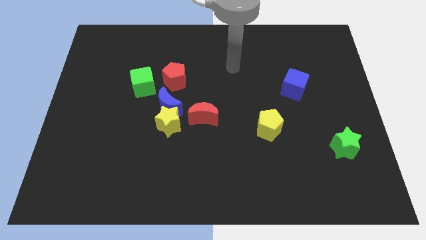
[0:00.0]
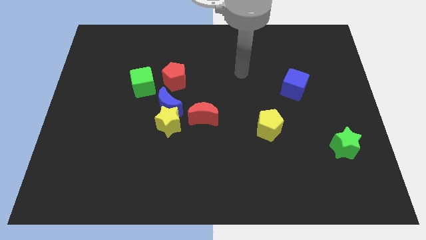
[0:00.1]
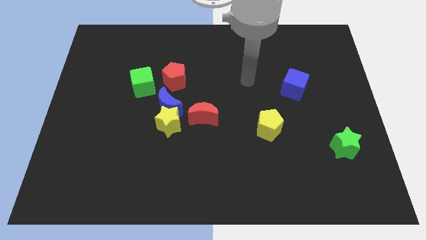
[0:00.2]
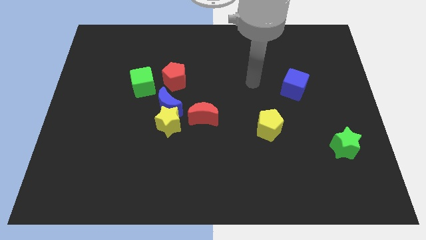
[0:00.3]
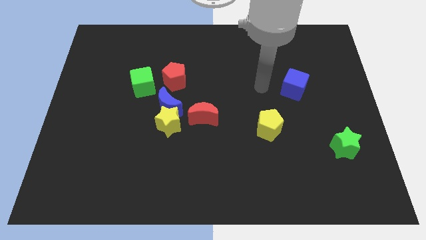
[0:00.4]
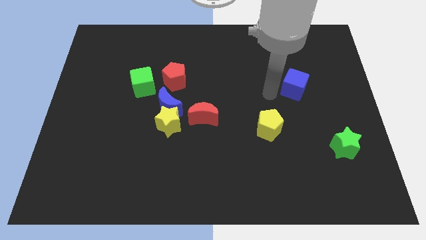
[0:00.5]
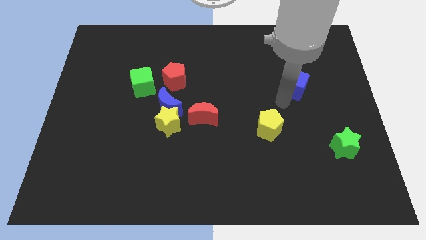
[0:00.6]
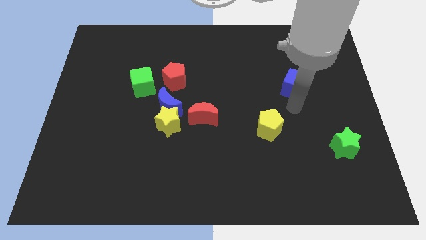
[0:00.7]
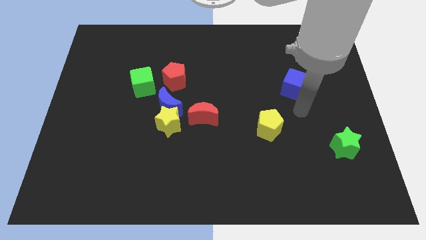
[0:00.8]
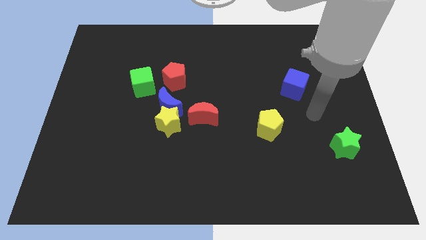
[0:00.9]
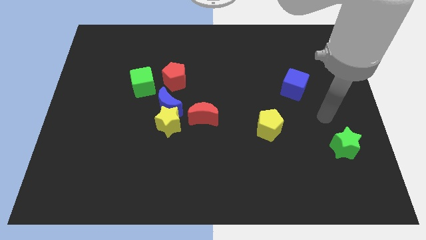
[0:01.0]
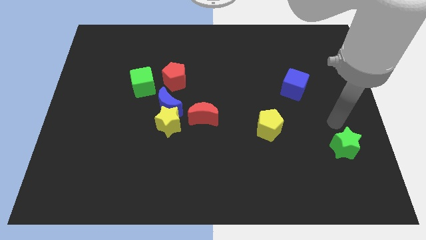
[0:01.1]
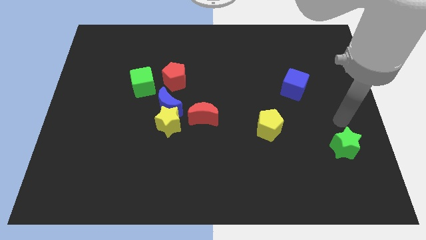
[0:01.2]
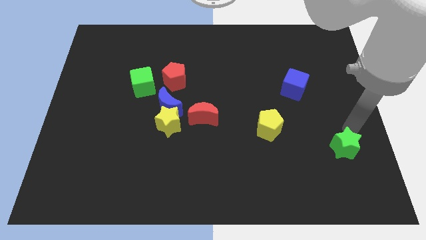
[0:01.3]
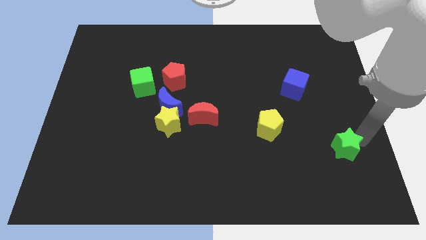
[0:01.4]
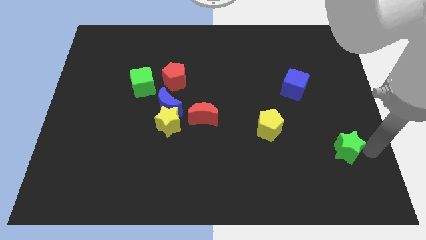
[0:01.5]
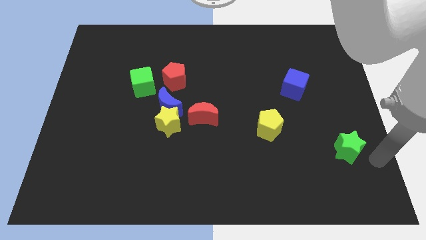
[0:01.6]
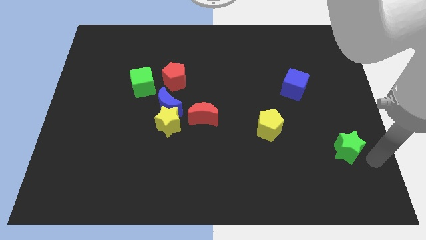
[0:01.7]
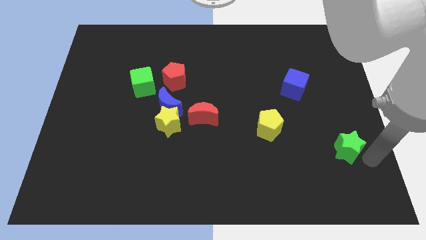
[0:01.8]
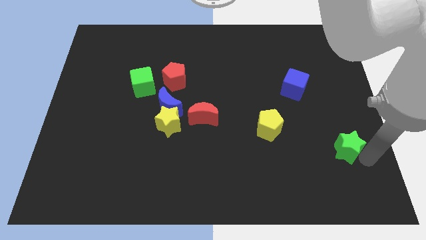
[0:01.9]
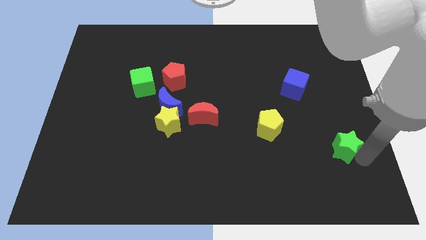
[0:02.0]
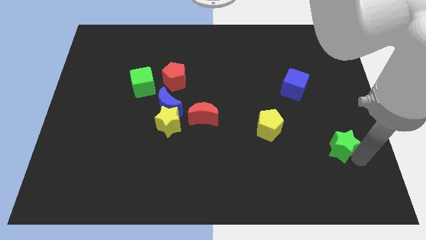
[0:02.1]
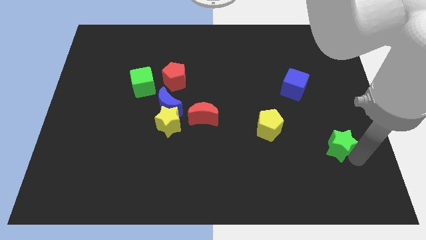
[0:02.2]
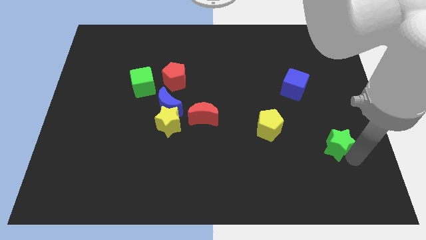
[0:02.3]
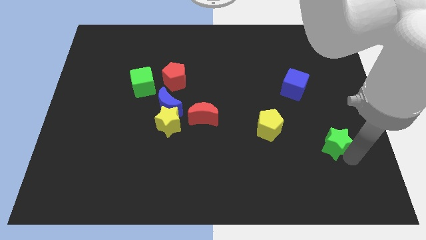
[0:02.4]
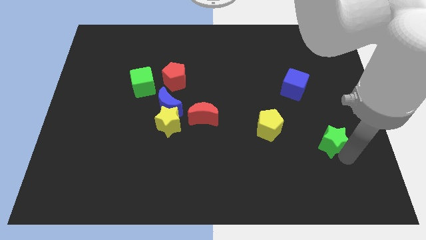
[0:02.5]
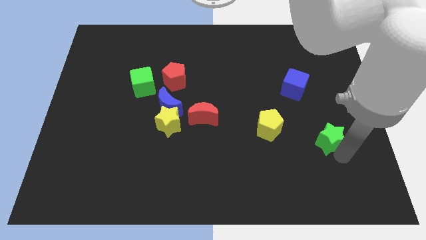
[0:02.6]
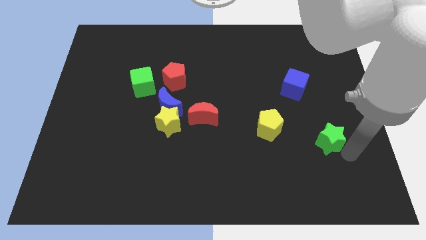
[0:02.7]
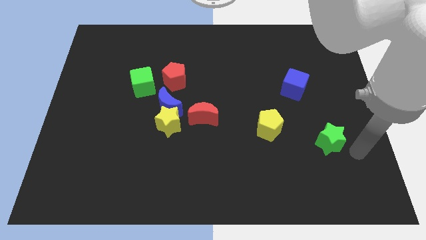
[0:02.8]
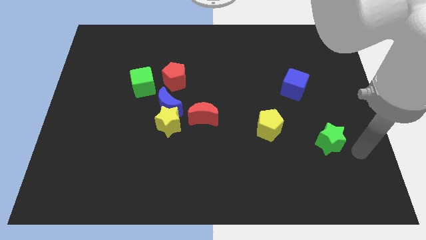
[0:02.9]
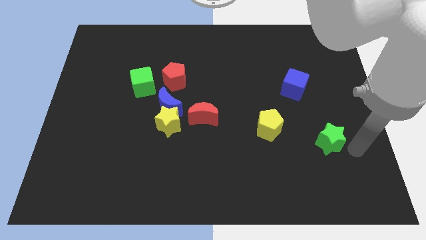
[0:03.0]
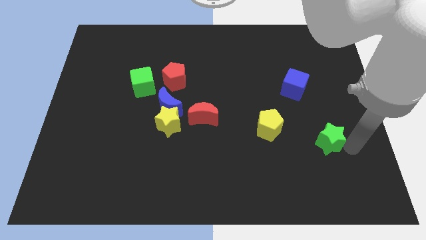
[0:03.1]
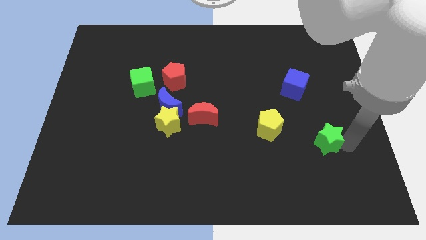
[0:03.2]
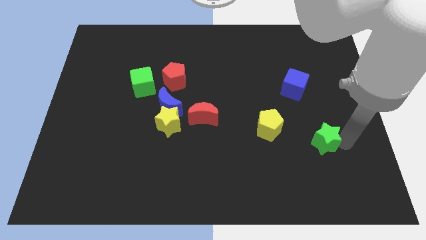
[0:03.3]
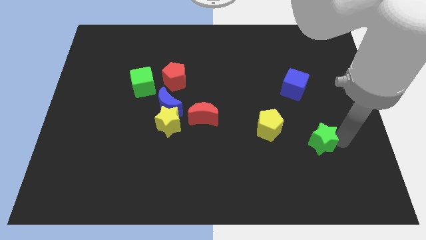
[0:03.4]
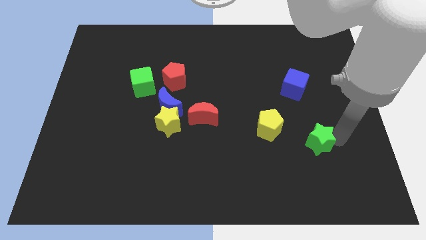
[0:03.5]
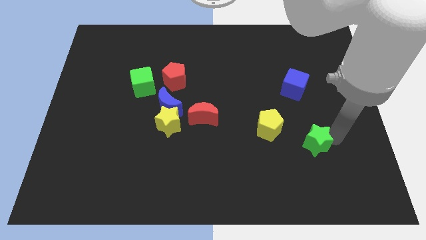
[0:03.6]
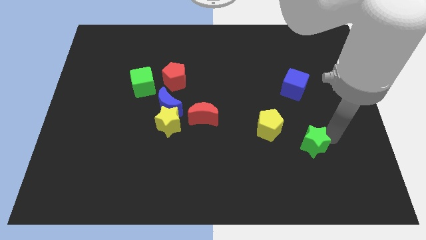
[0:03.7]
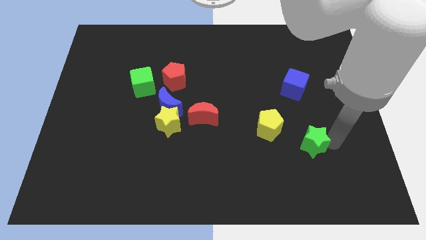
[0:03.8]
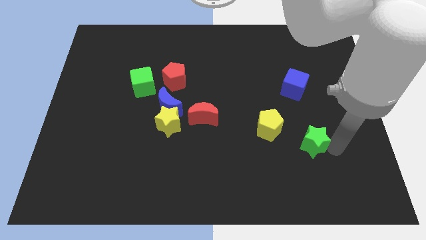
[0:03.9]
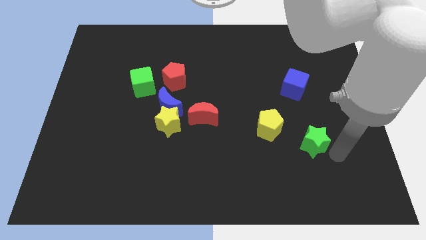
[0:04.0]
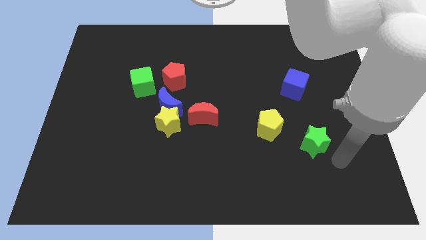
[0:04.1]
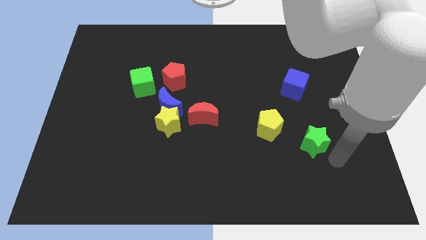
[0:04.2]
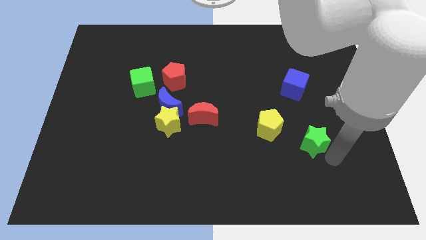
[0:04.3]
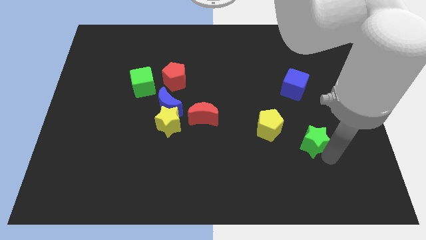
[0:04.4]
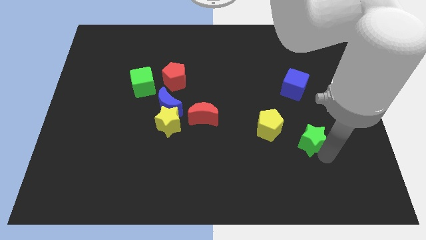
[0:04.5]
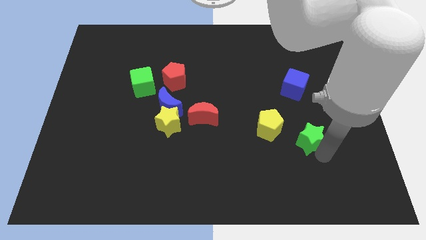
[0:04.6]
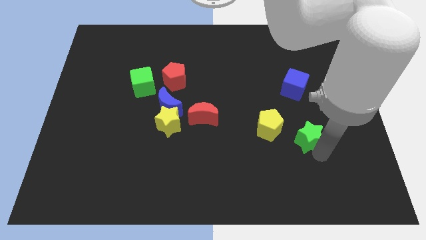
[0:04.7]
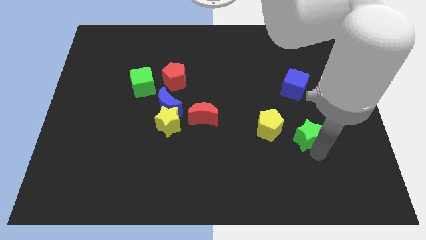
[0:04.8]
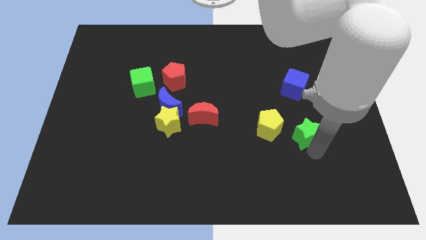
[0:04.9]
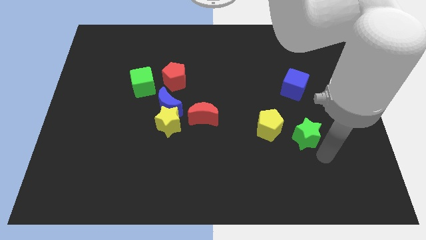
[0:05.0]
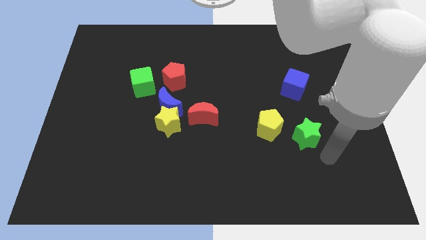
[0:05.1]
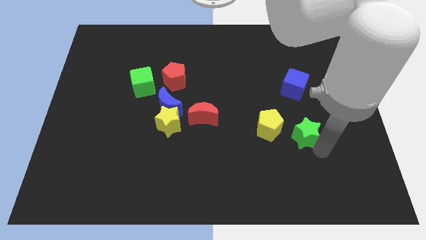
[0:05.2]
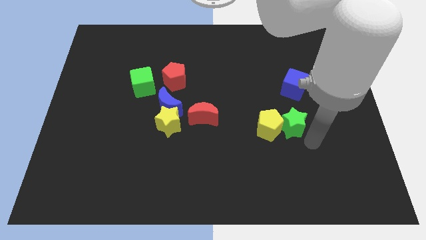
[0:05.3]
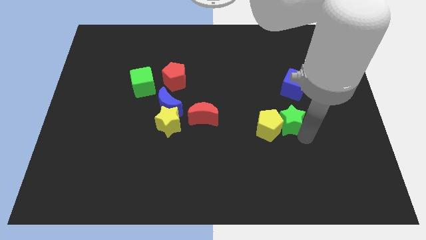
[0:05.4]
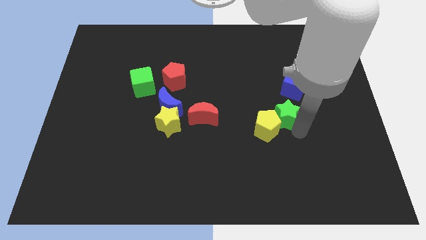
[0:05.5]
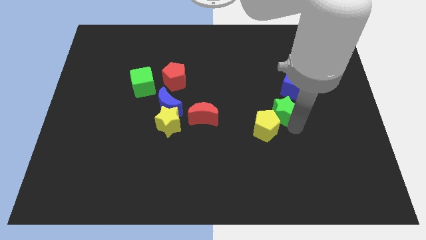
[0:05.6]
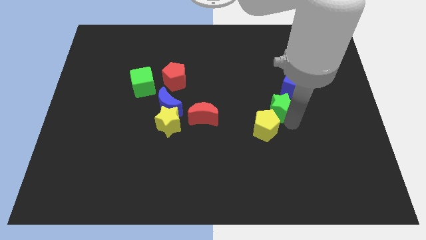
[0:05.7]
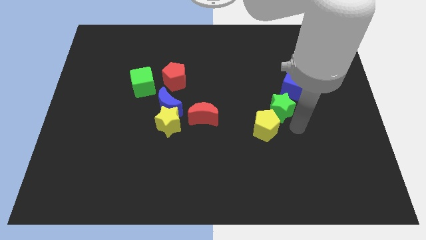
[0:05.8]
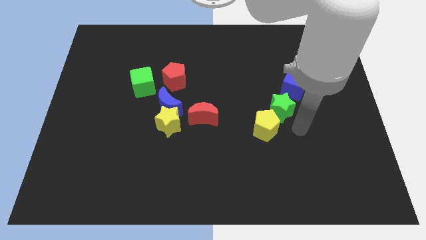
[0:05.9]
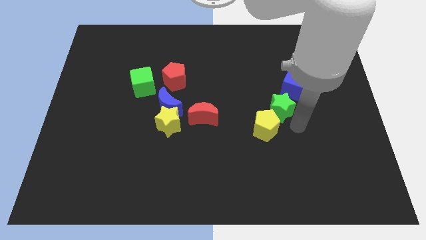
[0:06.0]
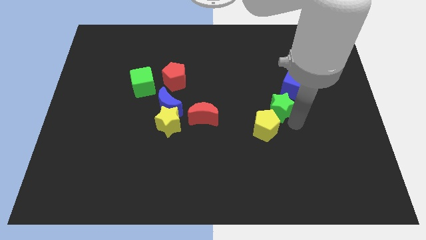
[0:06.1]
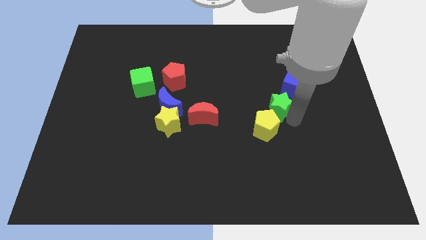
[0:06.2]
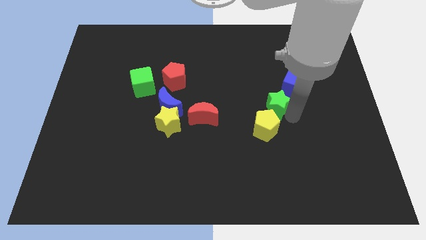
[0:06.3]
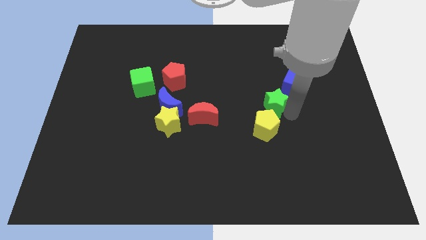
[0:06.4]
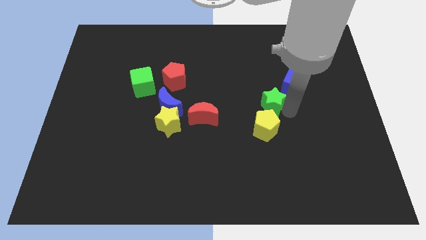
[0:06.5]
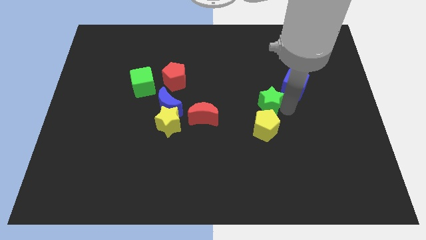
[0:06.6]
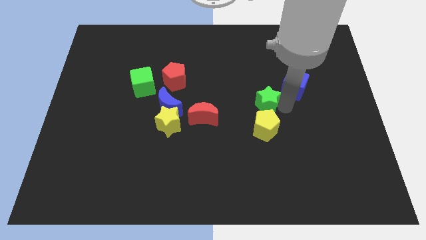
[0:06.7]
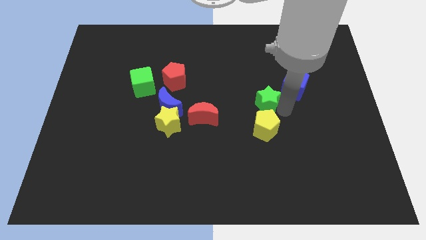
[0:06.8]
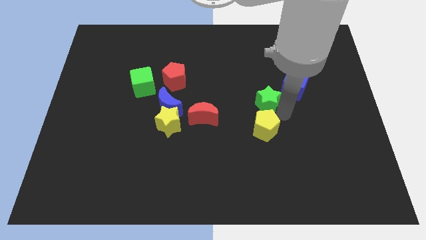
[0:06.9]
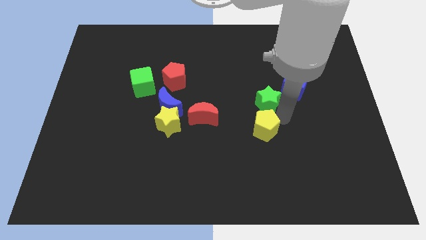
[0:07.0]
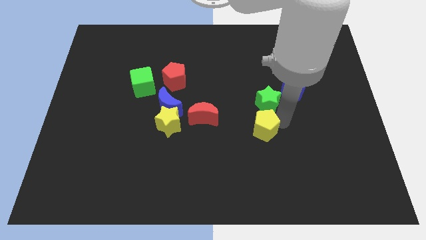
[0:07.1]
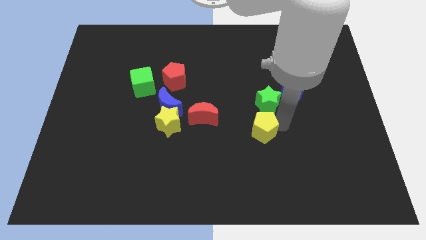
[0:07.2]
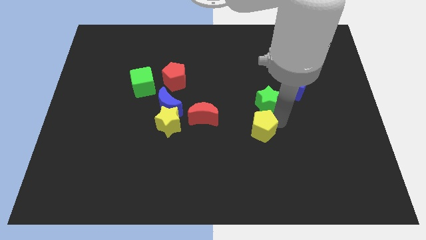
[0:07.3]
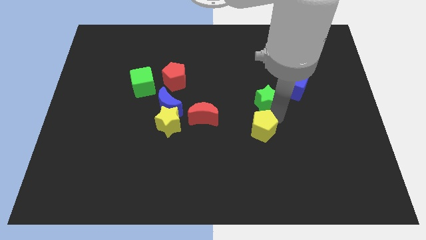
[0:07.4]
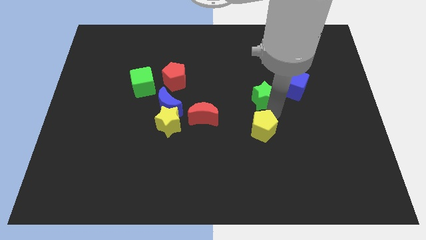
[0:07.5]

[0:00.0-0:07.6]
push the green star upwards and then to the left
